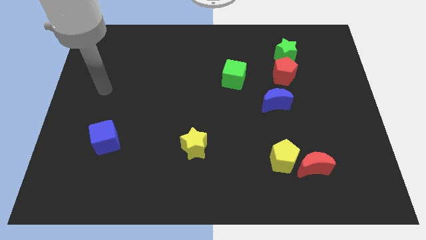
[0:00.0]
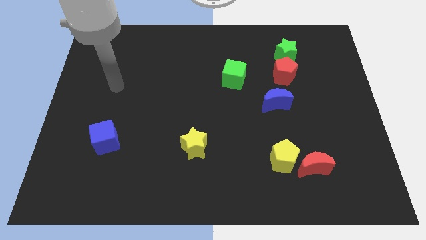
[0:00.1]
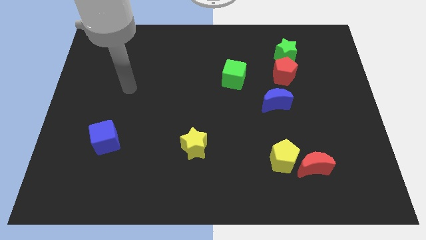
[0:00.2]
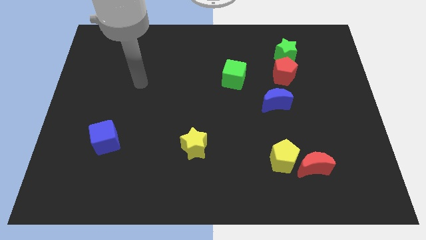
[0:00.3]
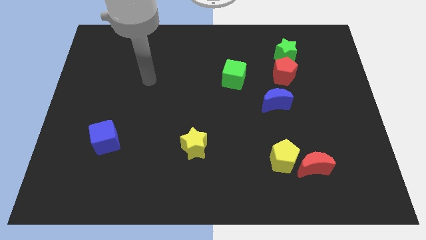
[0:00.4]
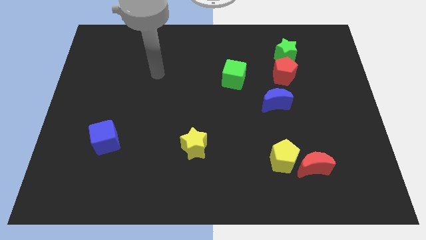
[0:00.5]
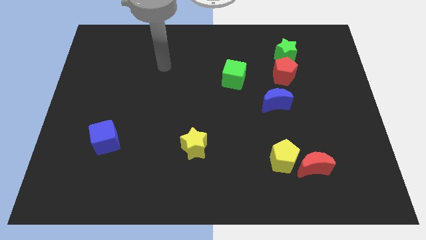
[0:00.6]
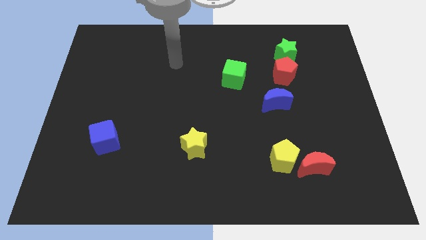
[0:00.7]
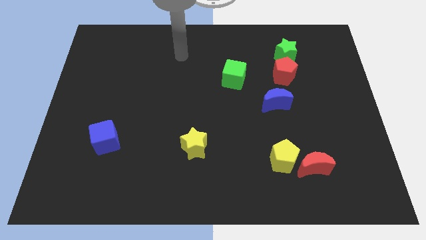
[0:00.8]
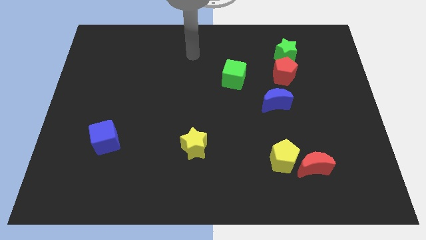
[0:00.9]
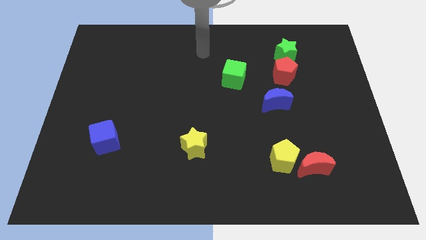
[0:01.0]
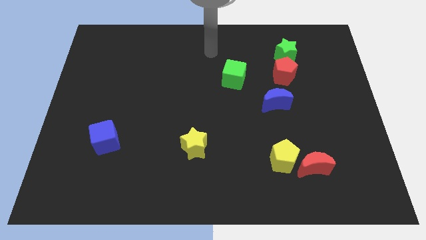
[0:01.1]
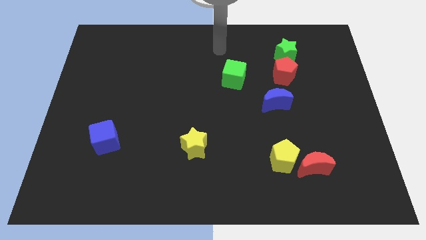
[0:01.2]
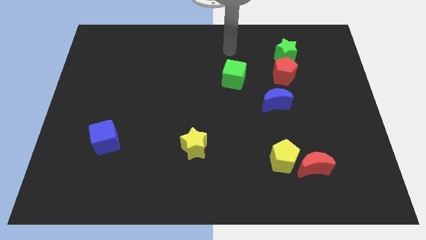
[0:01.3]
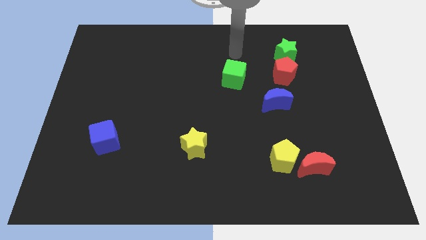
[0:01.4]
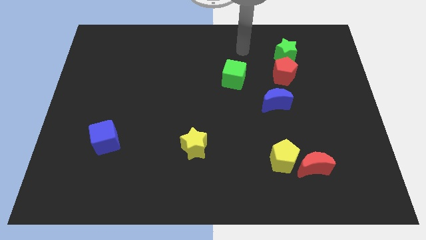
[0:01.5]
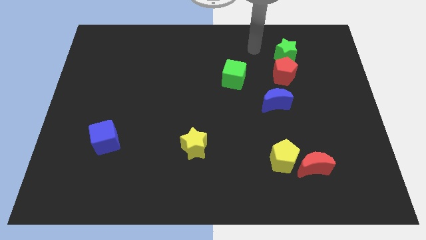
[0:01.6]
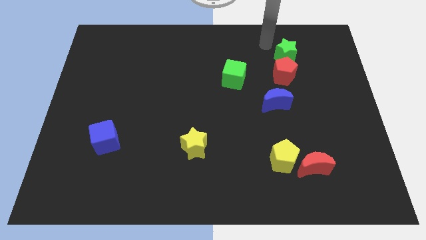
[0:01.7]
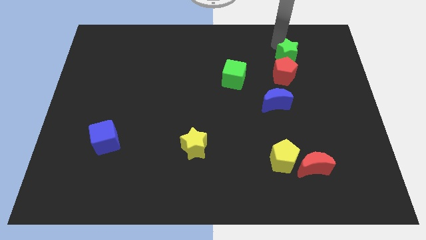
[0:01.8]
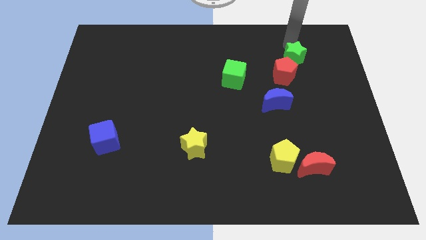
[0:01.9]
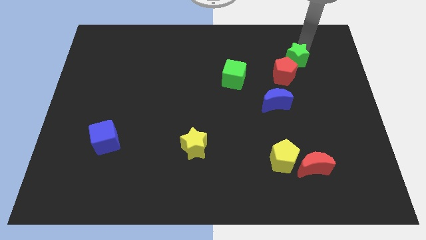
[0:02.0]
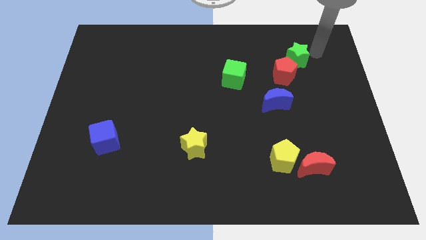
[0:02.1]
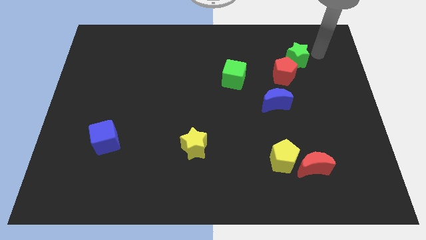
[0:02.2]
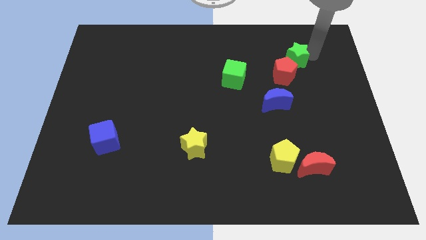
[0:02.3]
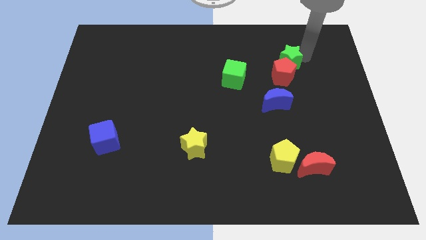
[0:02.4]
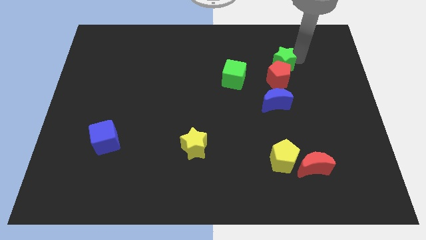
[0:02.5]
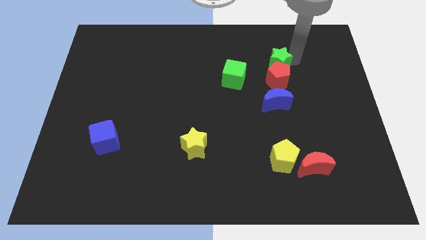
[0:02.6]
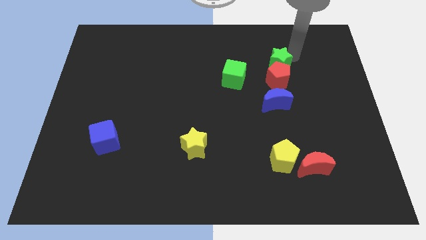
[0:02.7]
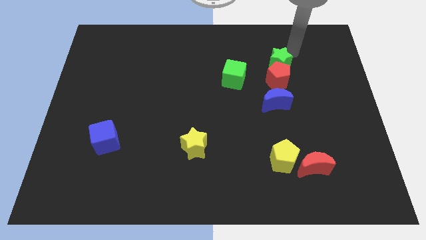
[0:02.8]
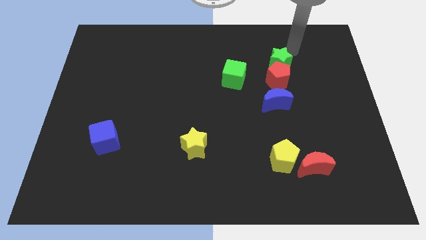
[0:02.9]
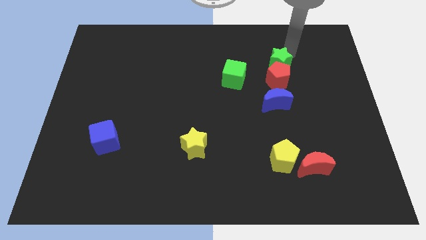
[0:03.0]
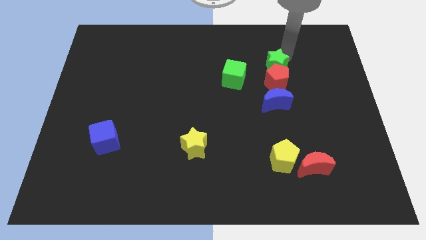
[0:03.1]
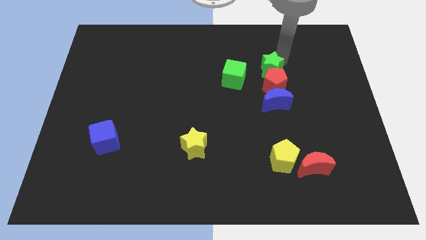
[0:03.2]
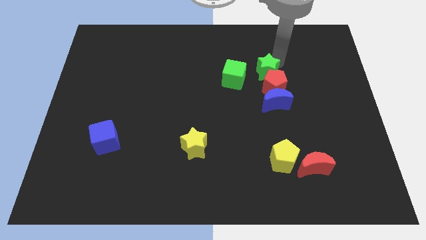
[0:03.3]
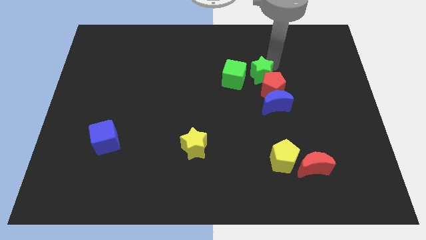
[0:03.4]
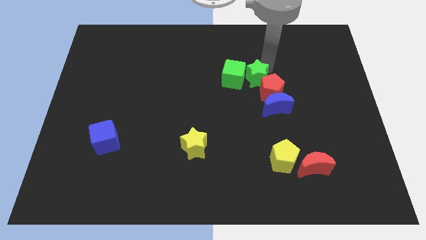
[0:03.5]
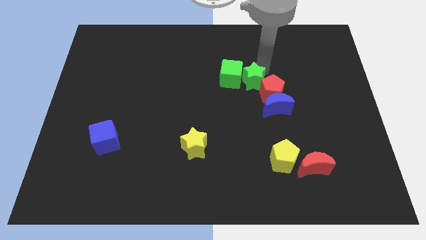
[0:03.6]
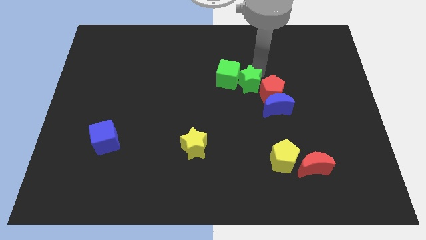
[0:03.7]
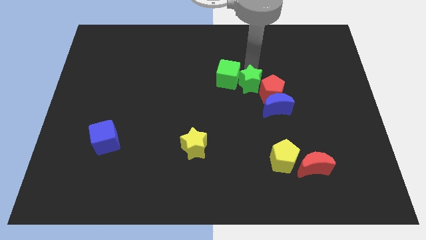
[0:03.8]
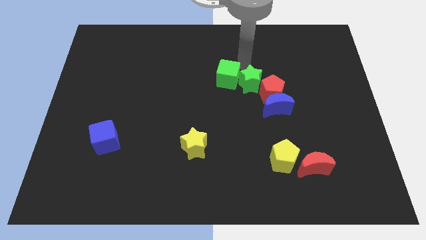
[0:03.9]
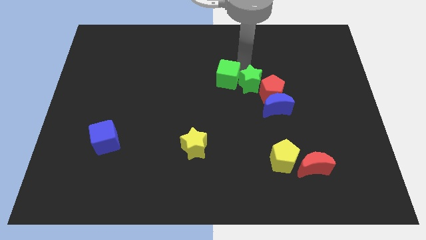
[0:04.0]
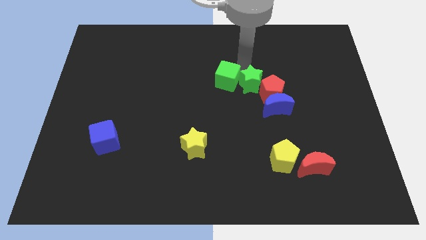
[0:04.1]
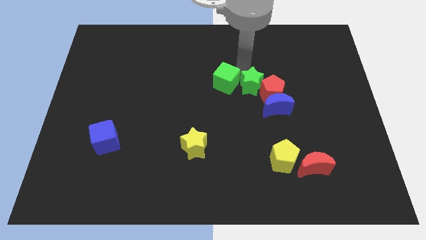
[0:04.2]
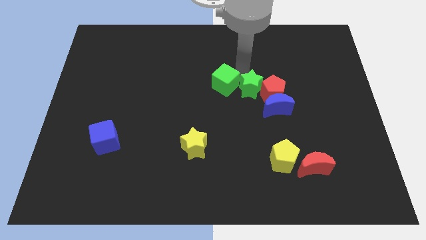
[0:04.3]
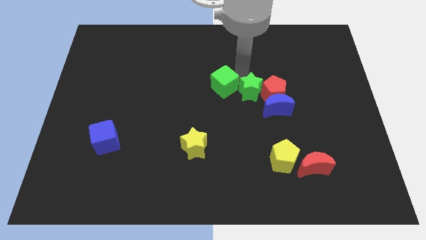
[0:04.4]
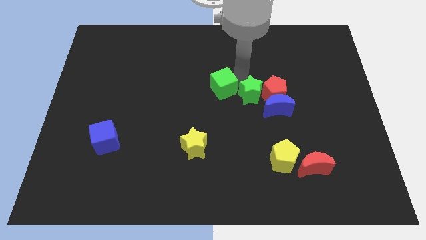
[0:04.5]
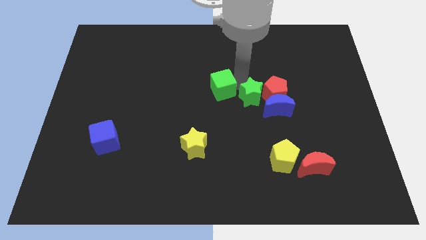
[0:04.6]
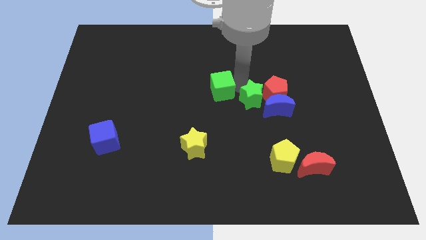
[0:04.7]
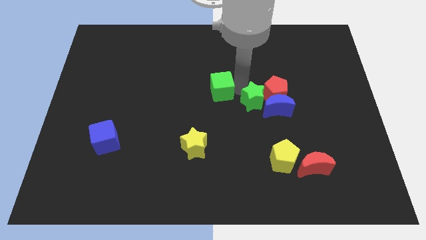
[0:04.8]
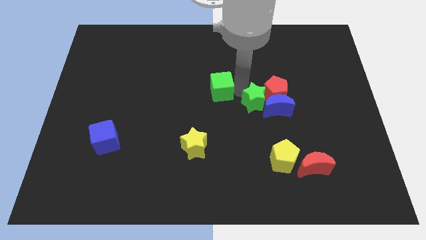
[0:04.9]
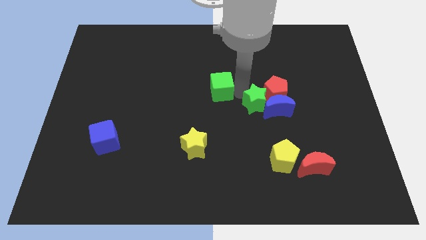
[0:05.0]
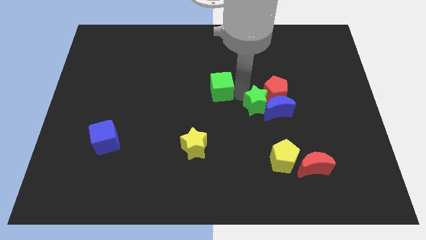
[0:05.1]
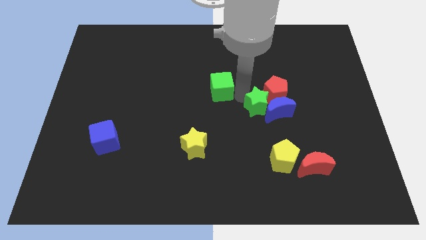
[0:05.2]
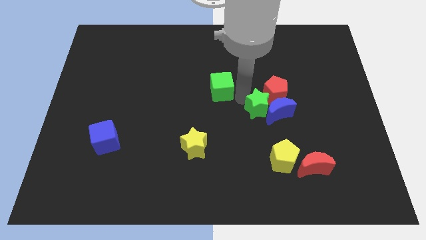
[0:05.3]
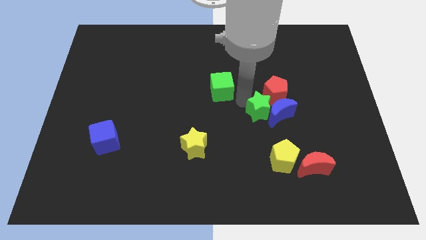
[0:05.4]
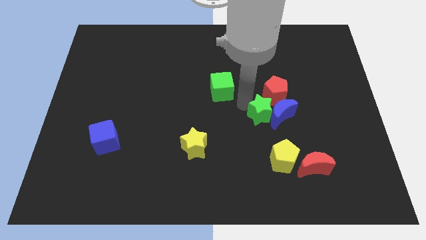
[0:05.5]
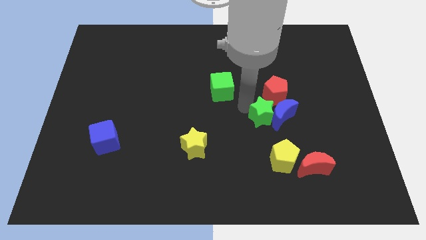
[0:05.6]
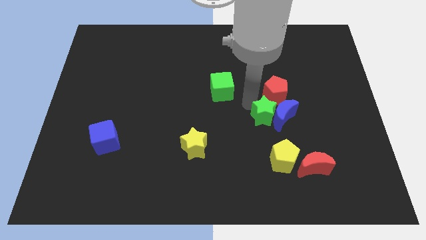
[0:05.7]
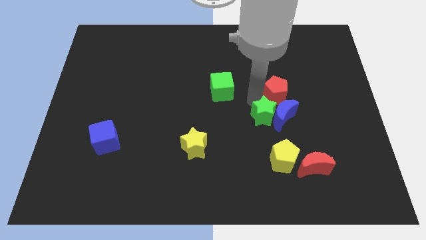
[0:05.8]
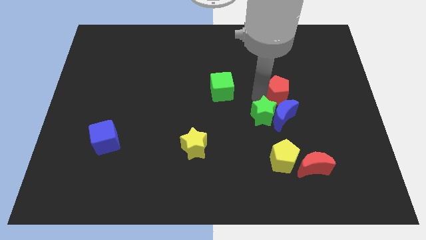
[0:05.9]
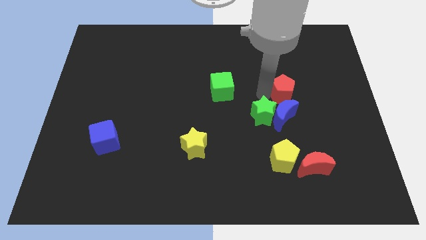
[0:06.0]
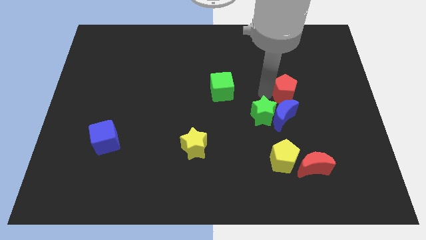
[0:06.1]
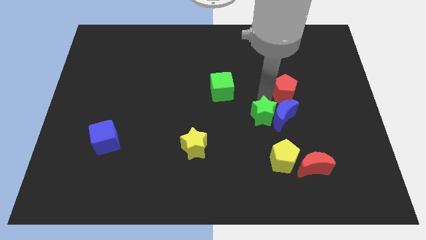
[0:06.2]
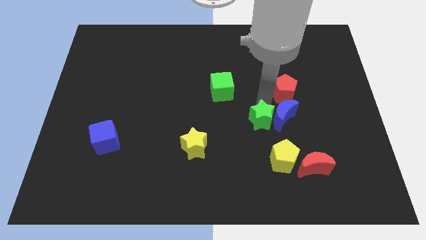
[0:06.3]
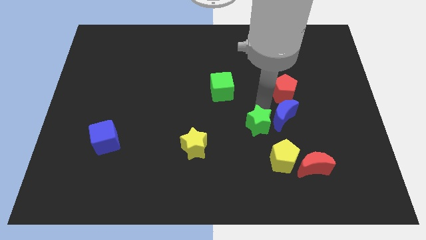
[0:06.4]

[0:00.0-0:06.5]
push the green star to the top left of the yellow pentagon

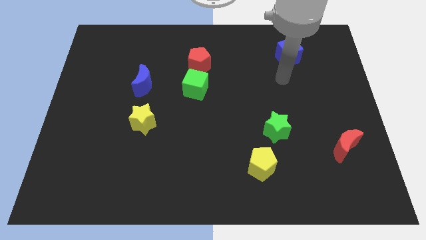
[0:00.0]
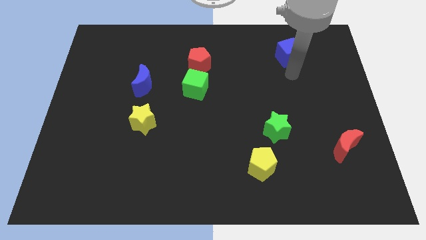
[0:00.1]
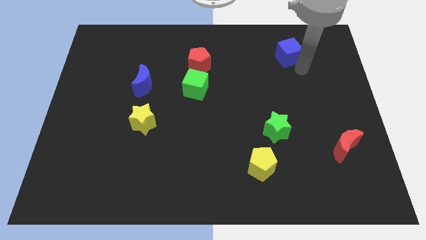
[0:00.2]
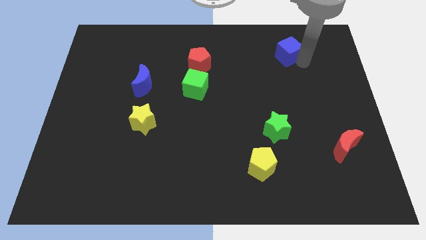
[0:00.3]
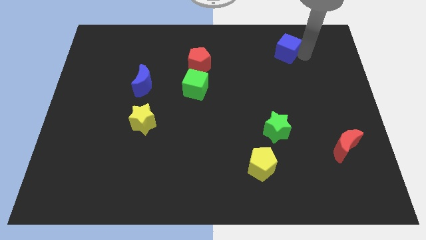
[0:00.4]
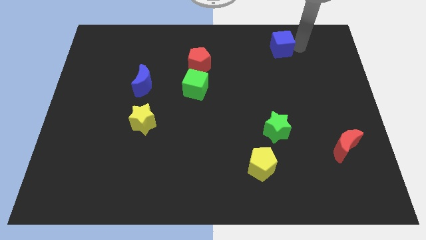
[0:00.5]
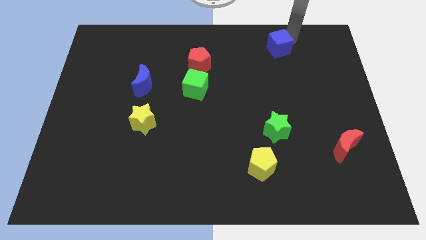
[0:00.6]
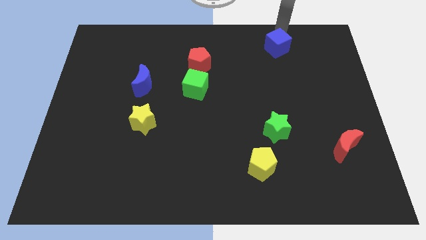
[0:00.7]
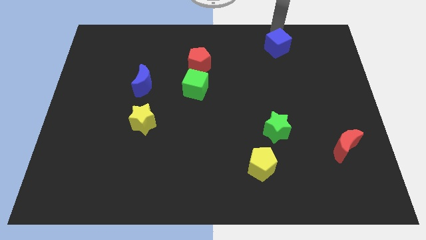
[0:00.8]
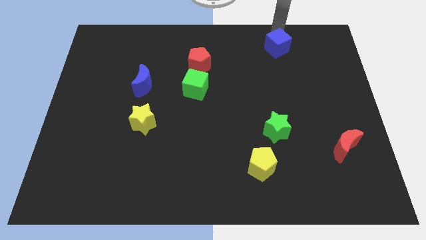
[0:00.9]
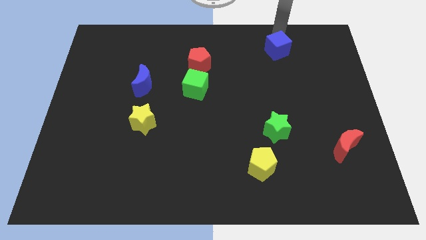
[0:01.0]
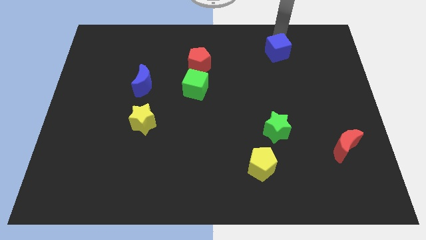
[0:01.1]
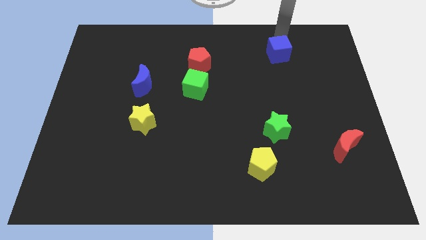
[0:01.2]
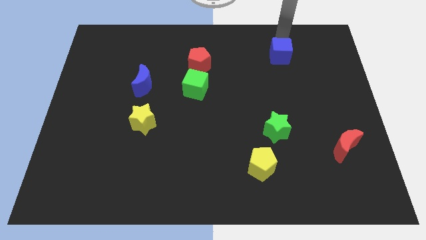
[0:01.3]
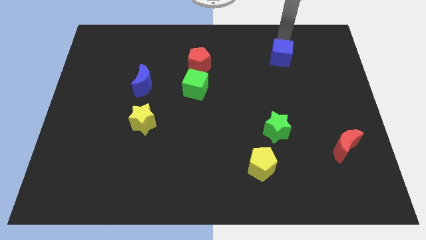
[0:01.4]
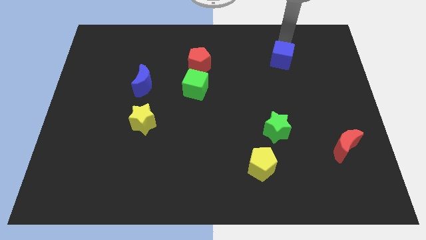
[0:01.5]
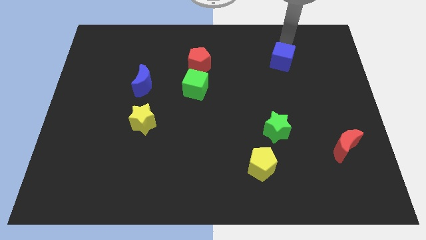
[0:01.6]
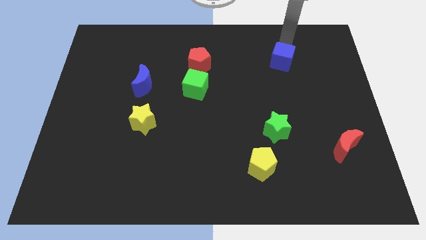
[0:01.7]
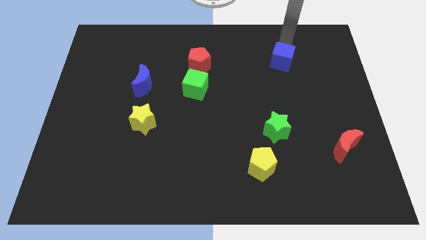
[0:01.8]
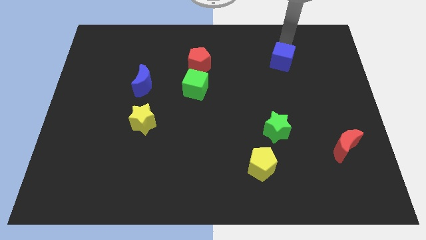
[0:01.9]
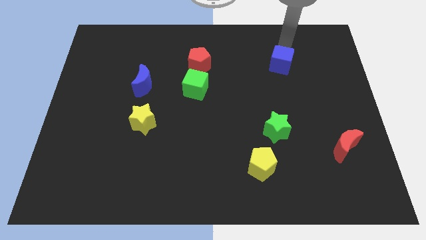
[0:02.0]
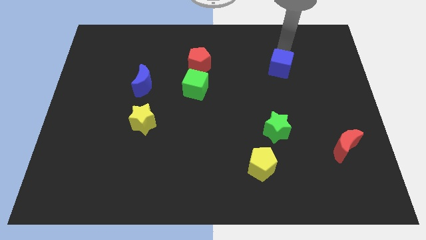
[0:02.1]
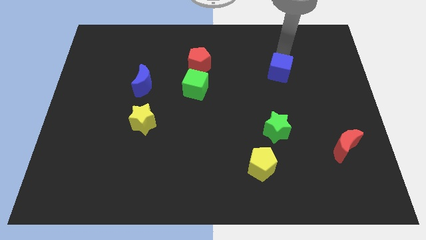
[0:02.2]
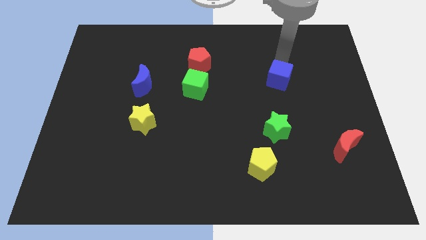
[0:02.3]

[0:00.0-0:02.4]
move the blue cube to the top of the green star
